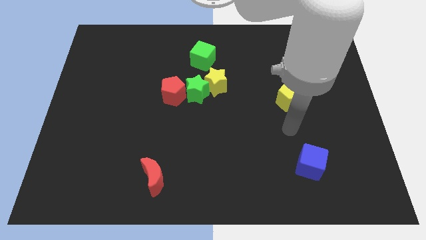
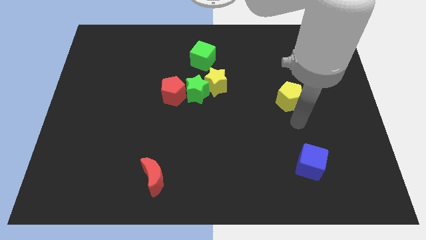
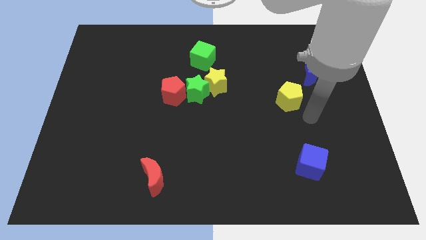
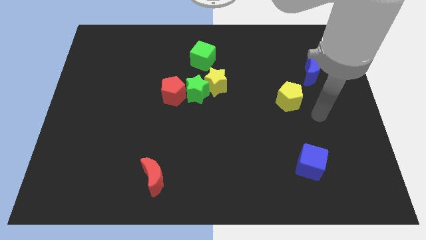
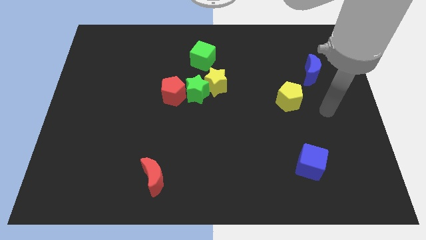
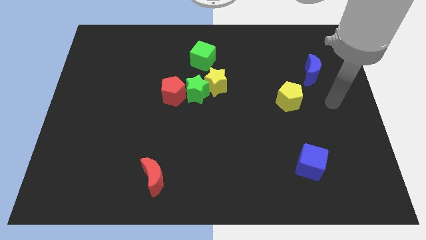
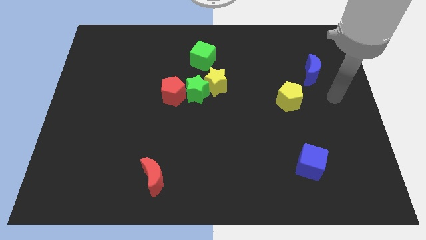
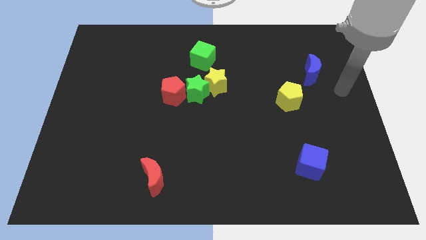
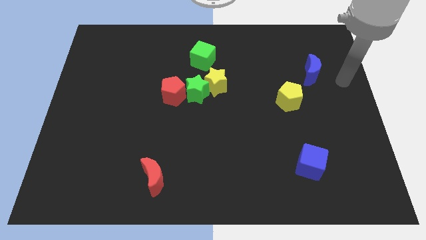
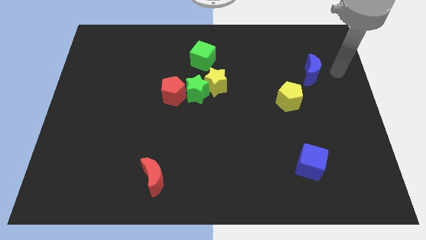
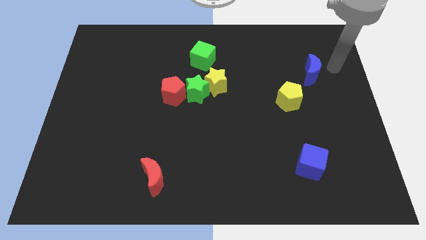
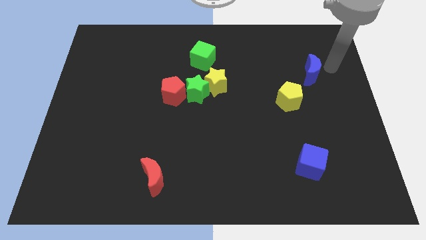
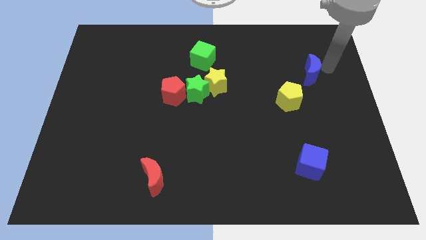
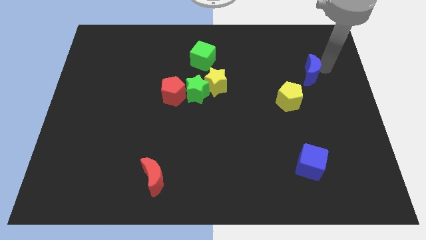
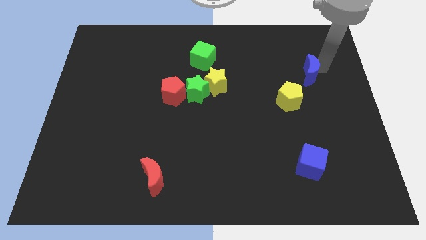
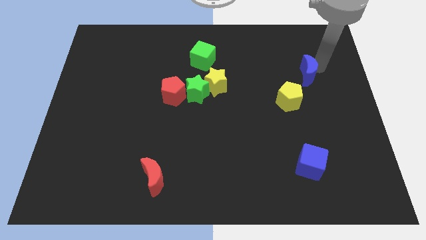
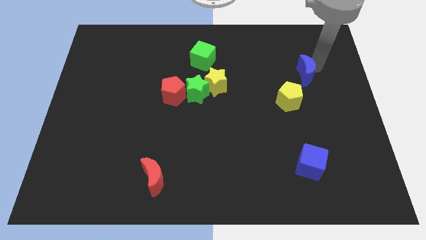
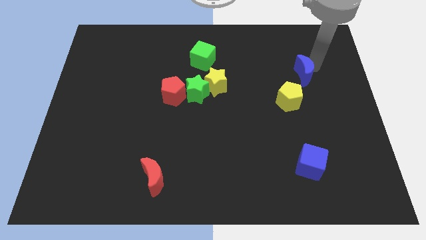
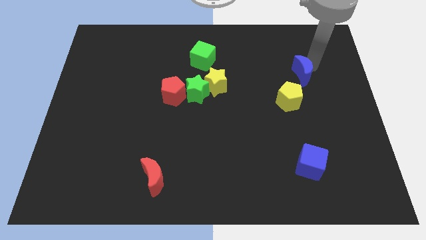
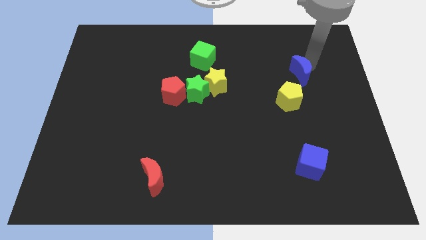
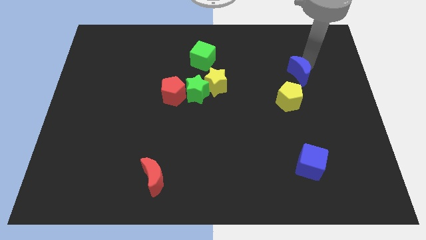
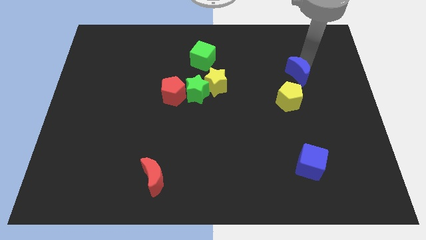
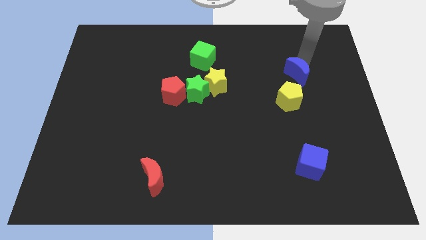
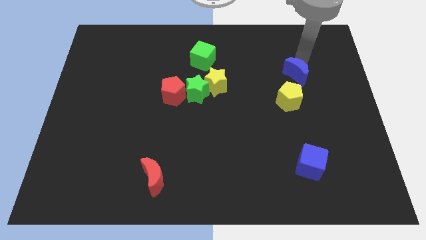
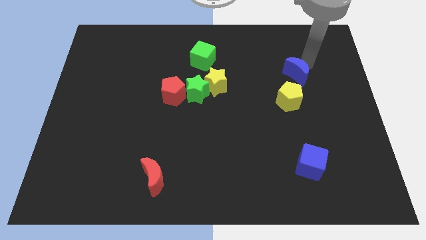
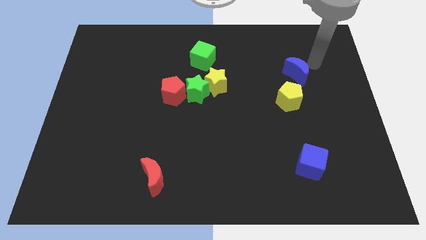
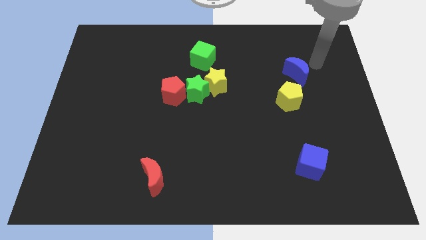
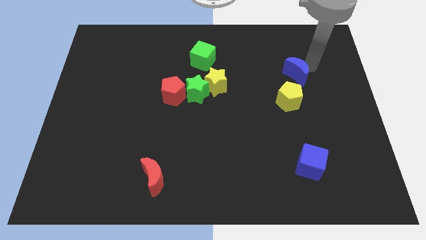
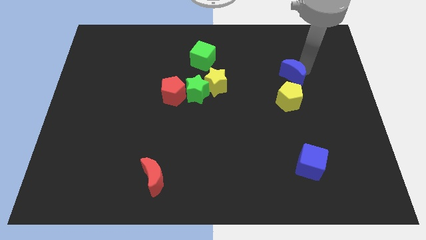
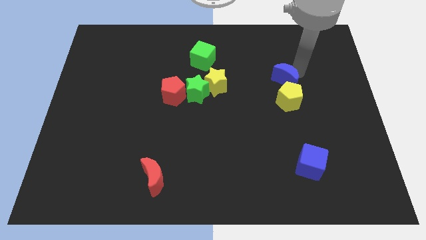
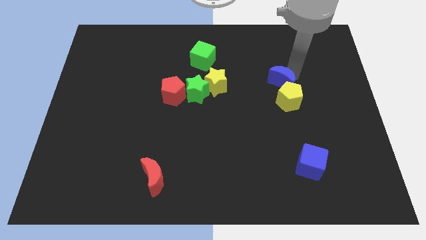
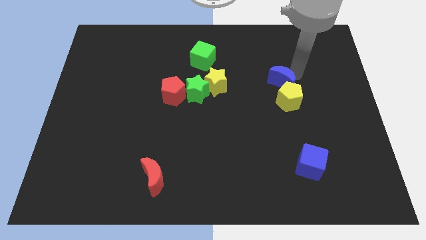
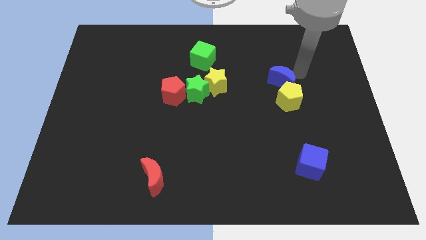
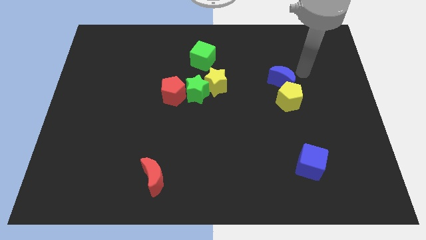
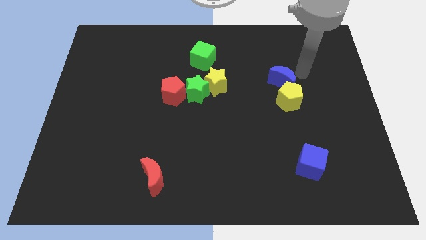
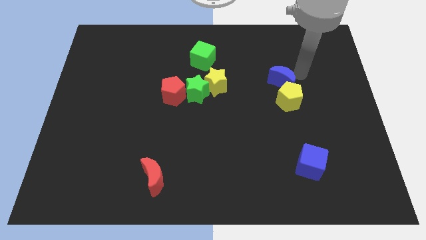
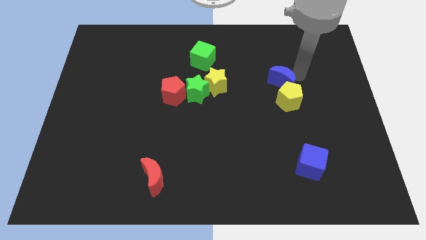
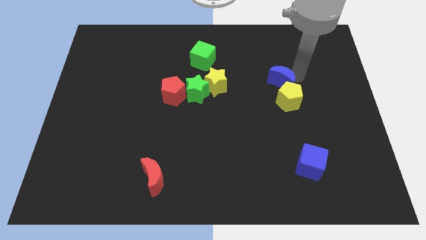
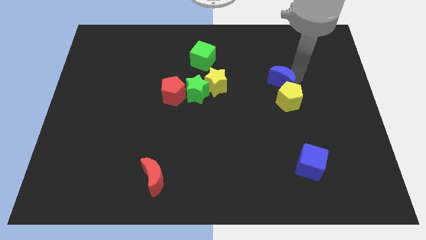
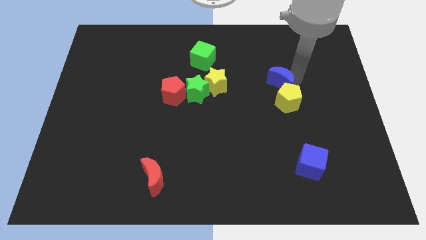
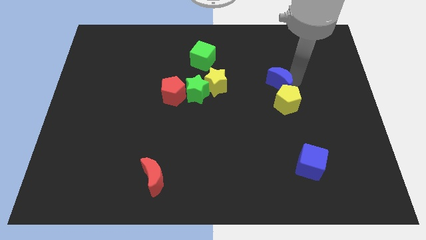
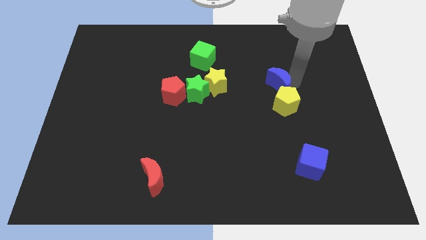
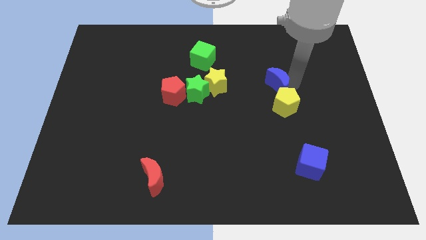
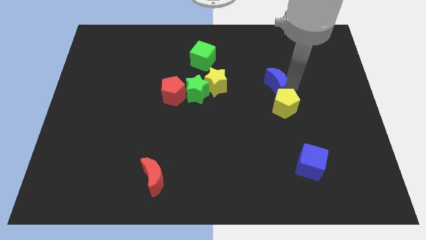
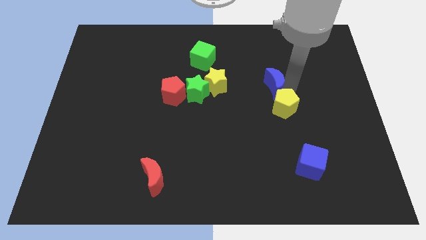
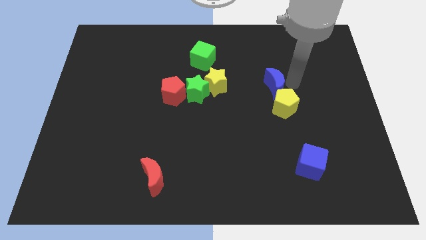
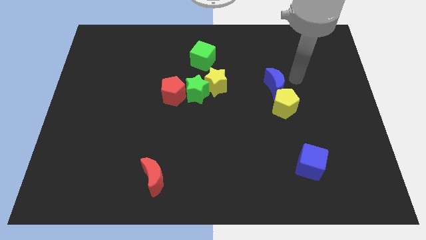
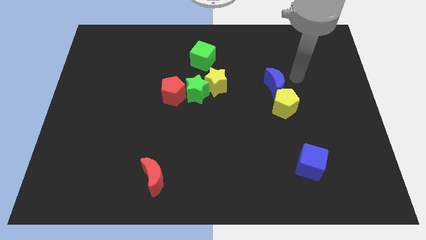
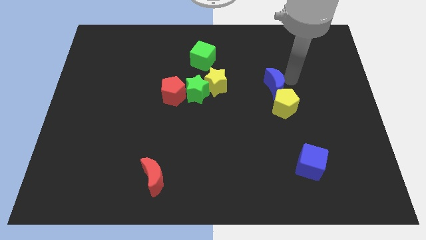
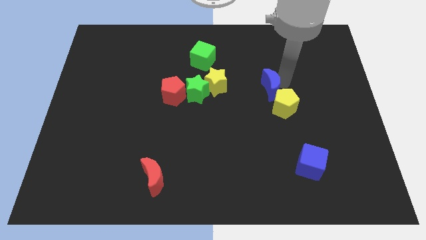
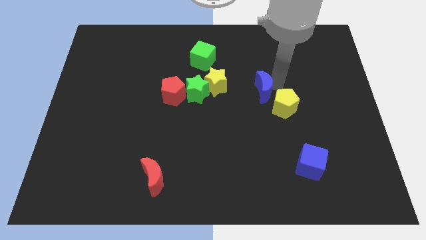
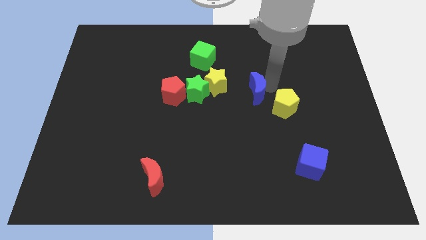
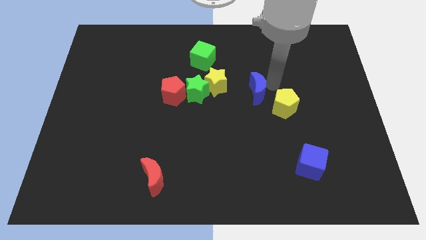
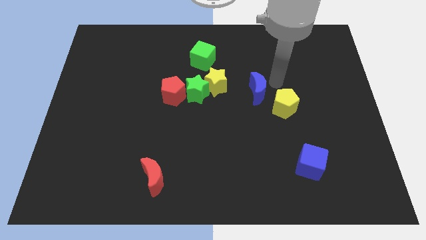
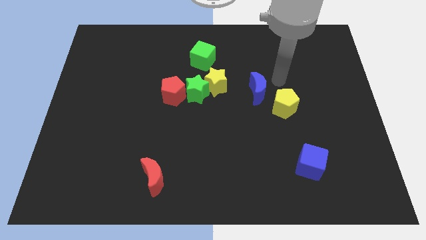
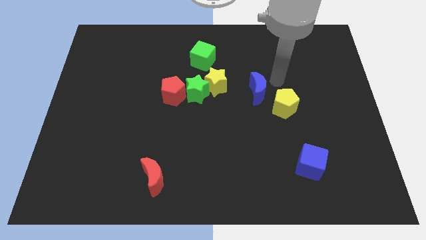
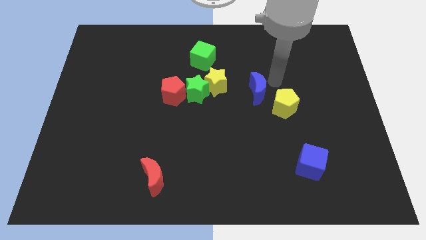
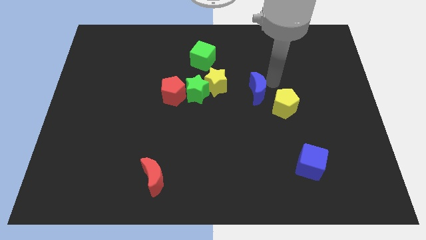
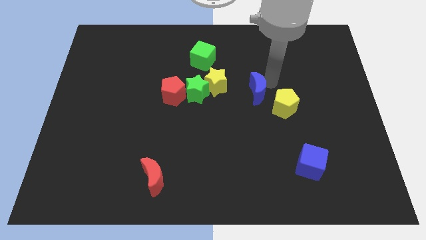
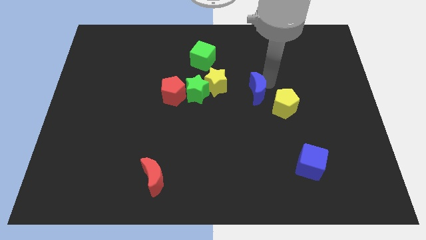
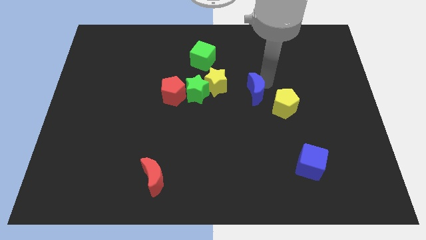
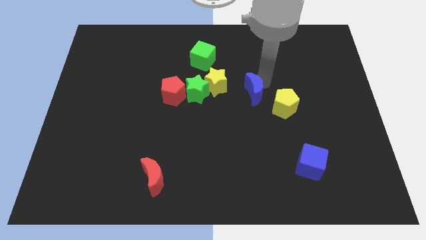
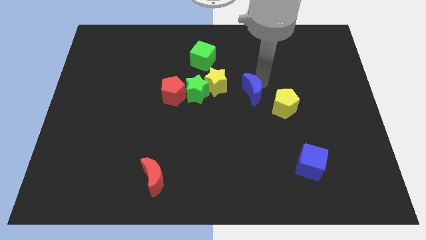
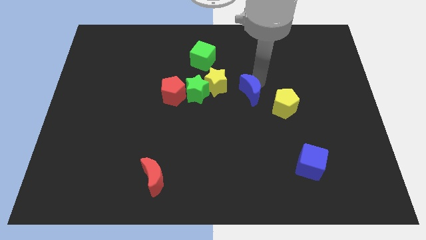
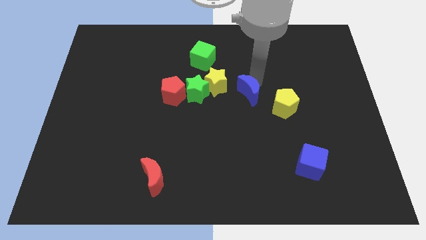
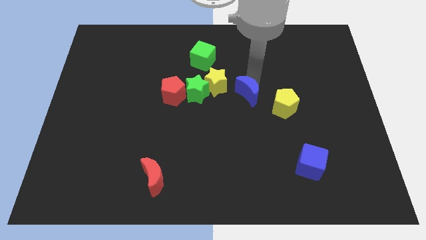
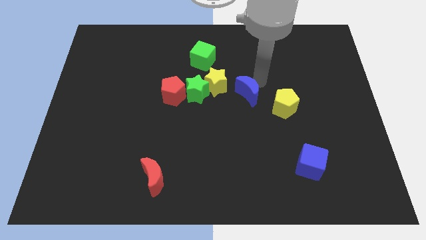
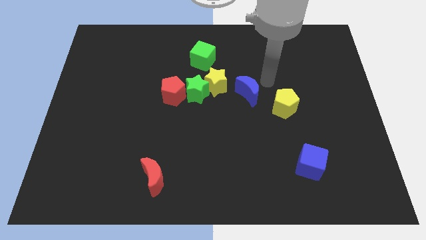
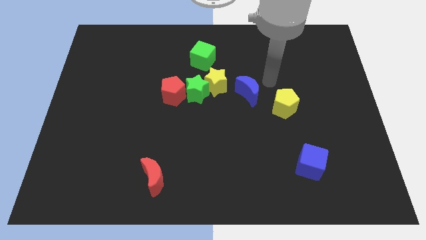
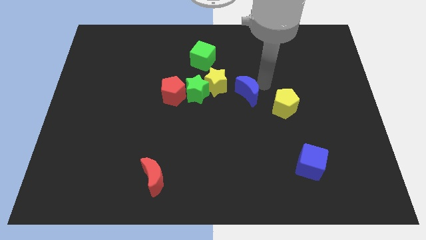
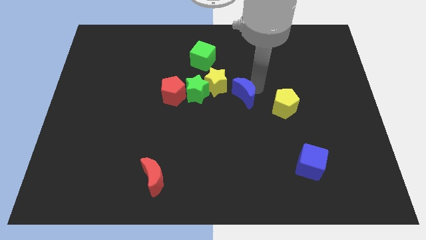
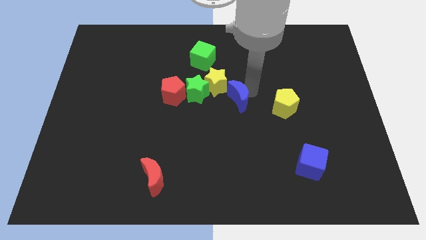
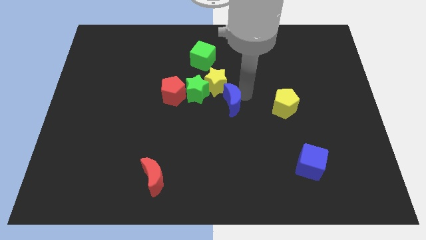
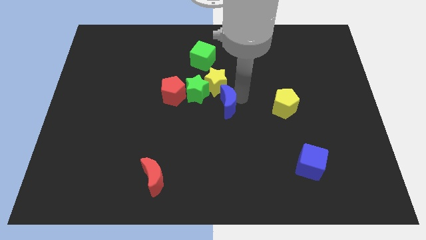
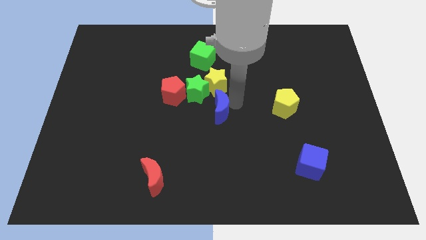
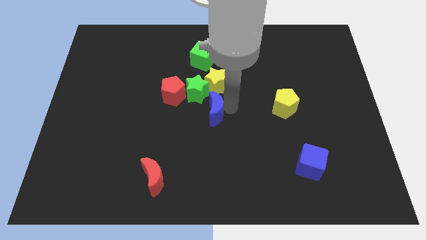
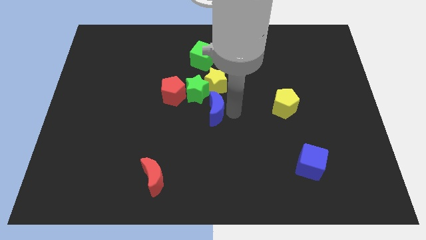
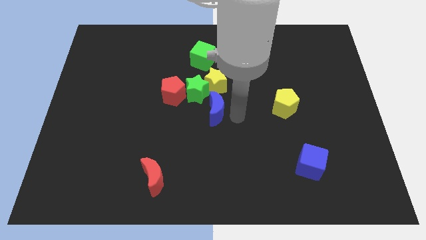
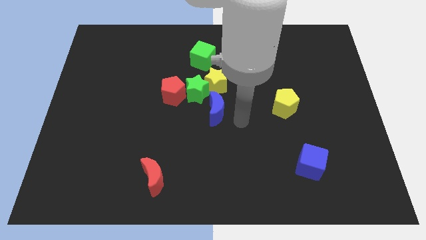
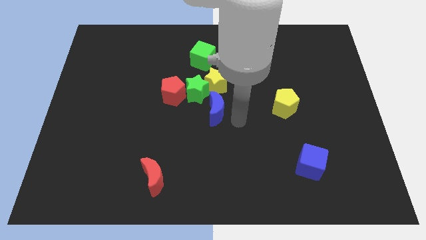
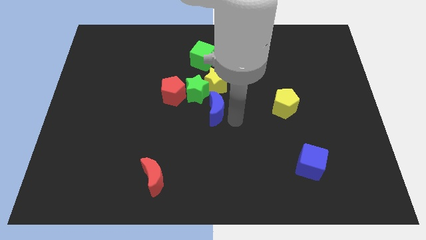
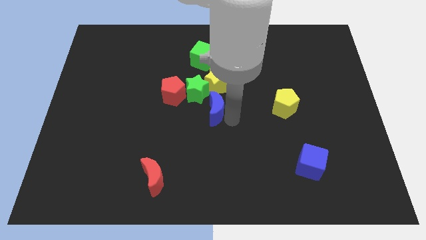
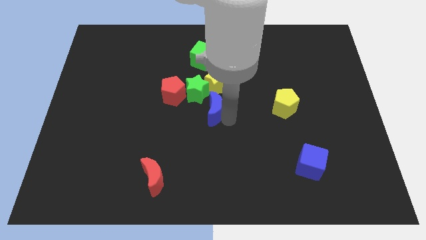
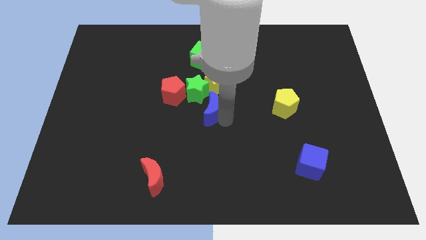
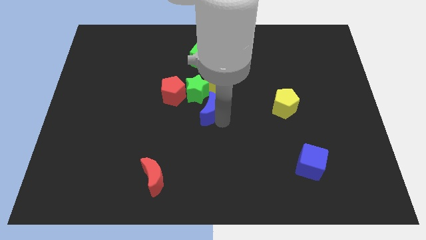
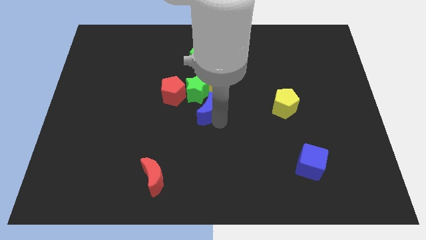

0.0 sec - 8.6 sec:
put the blue moon to the bottom left of the yellow star
